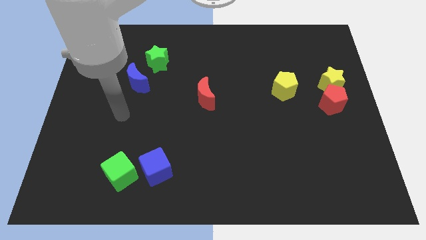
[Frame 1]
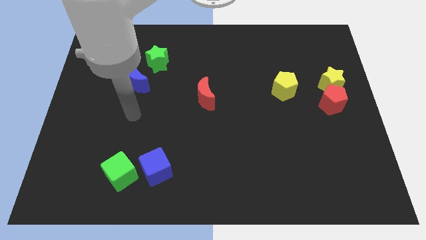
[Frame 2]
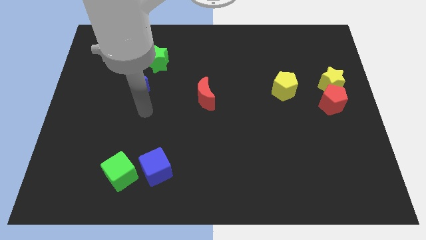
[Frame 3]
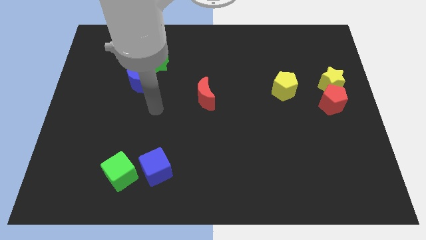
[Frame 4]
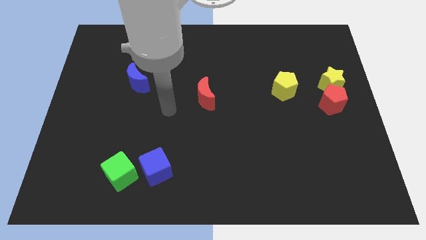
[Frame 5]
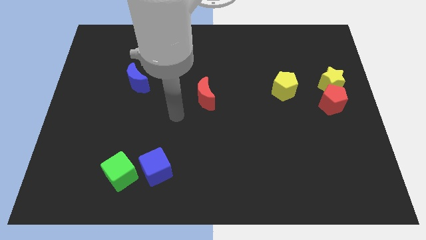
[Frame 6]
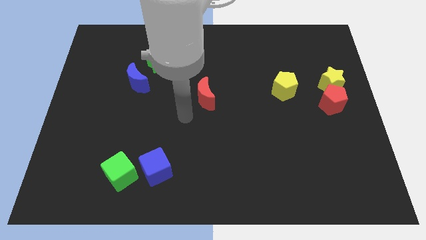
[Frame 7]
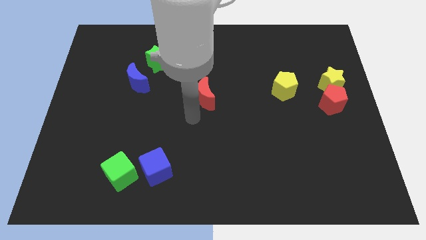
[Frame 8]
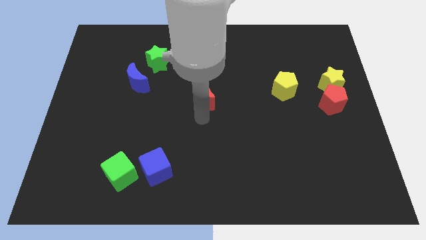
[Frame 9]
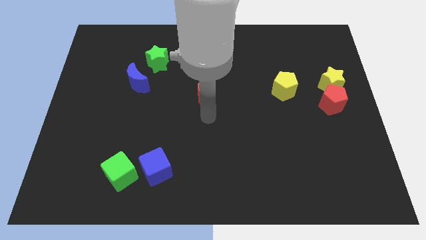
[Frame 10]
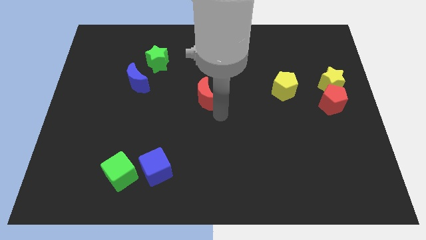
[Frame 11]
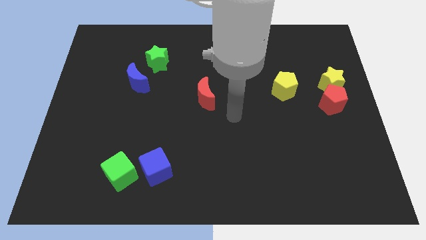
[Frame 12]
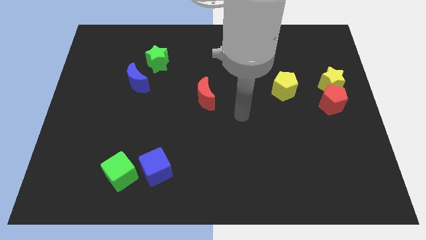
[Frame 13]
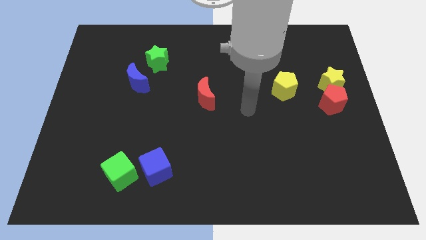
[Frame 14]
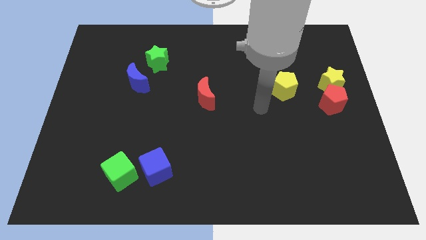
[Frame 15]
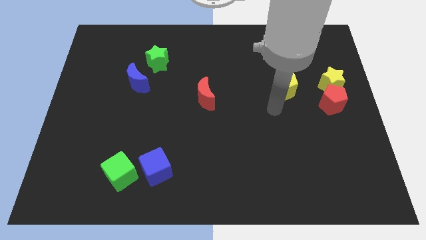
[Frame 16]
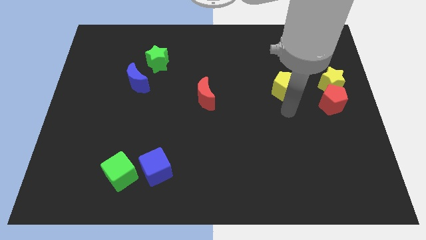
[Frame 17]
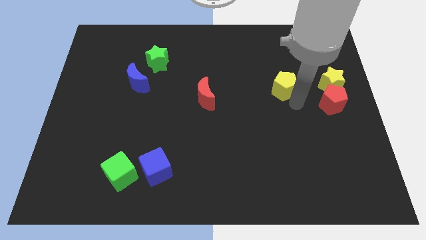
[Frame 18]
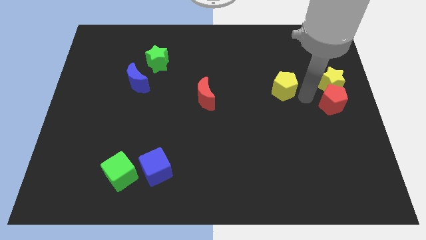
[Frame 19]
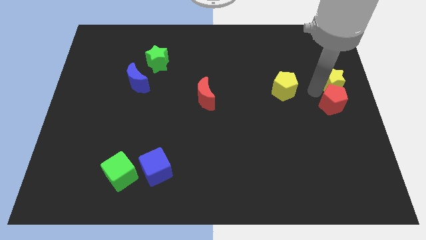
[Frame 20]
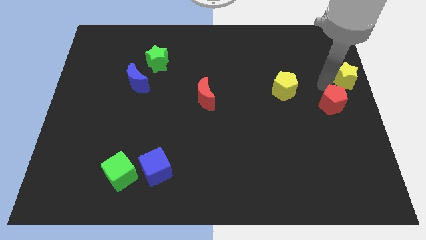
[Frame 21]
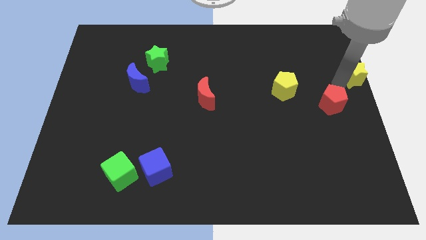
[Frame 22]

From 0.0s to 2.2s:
move the red pentagon away from the yellow star

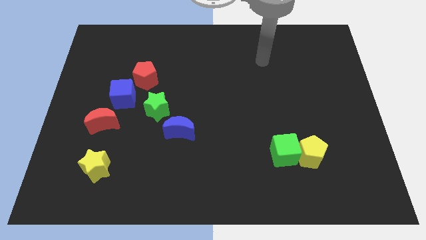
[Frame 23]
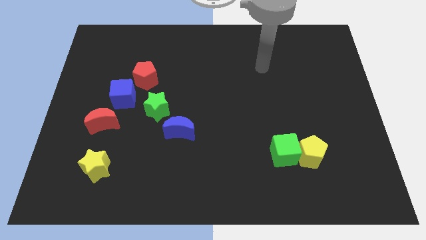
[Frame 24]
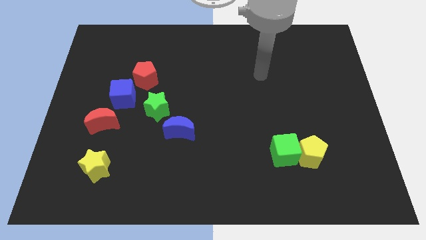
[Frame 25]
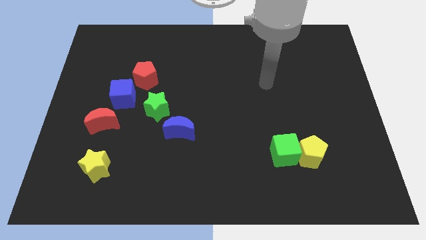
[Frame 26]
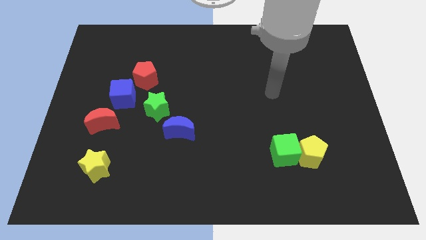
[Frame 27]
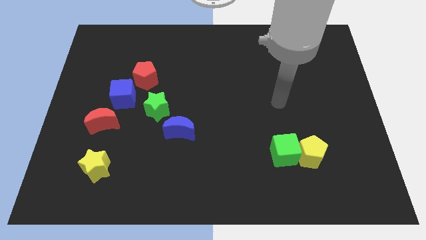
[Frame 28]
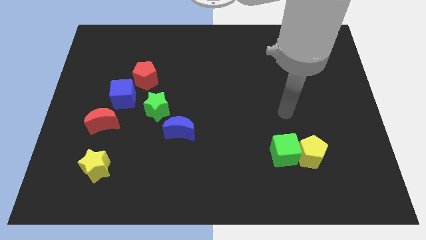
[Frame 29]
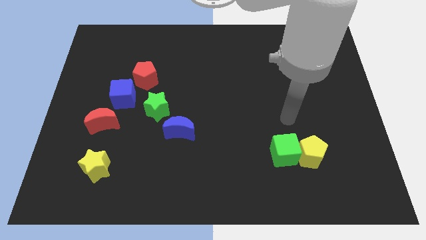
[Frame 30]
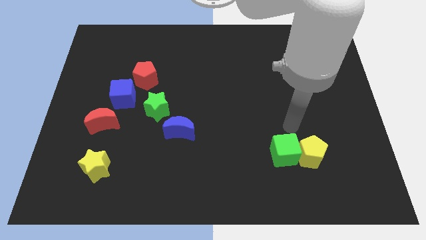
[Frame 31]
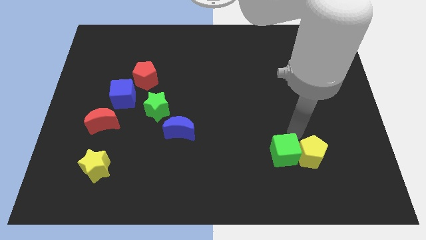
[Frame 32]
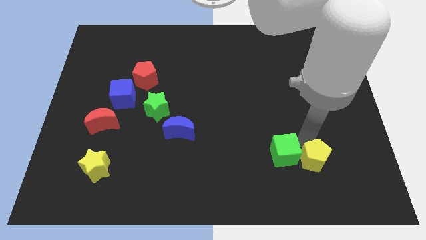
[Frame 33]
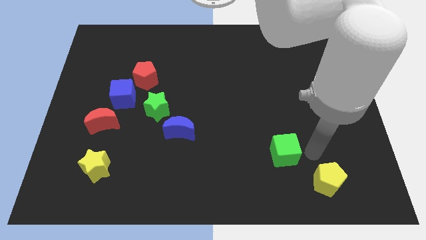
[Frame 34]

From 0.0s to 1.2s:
separate the green cube from the yellow pentagon

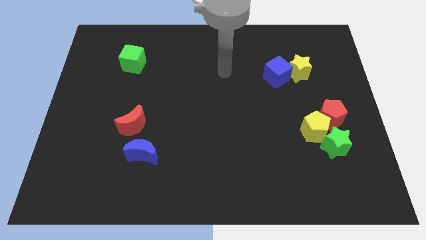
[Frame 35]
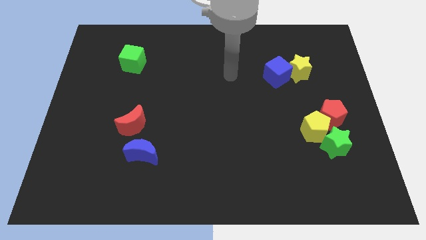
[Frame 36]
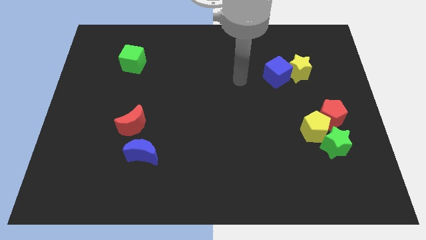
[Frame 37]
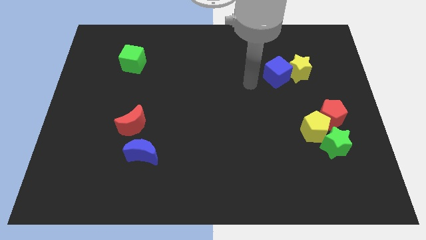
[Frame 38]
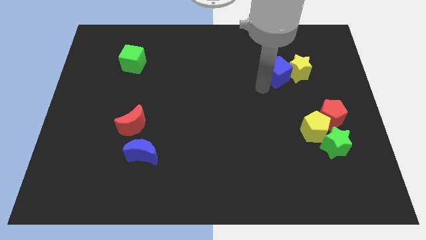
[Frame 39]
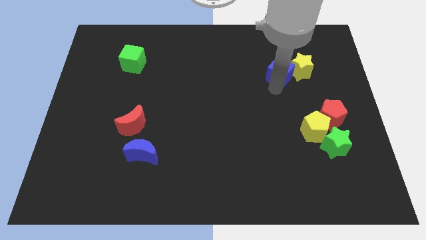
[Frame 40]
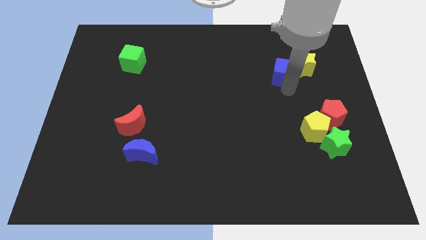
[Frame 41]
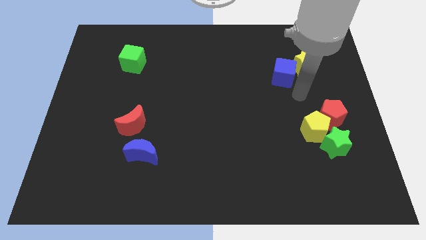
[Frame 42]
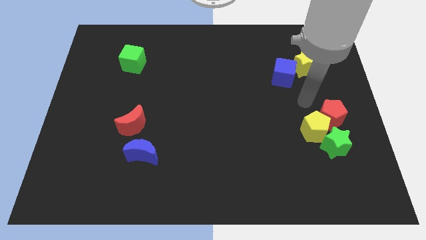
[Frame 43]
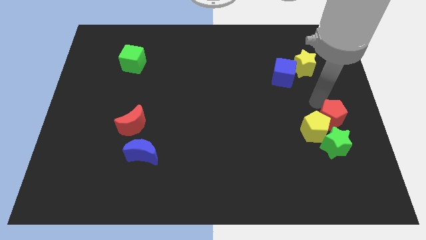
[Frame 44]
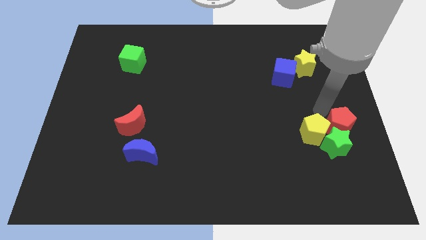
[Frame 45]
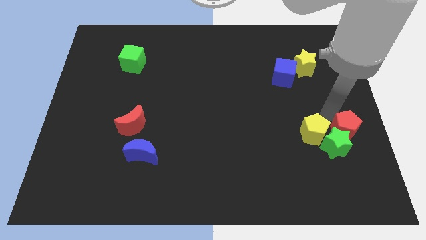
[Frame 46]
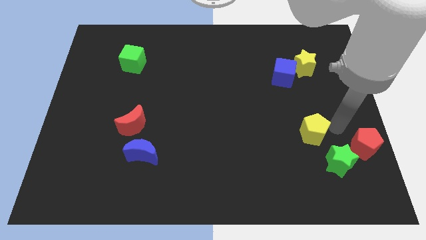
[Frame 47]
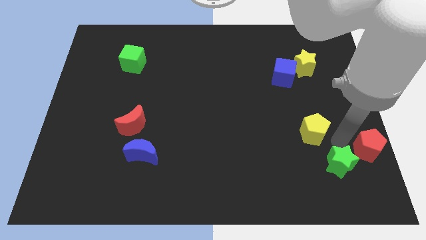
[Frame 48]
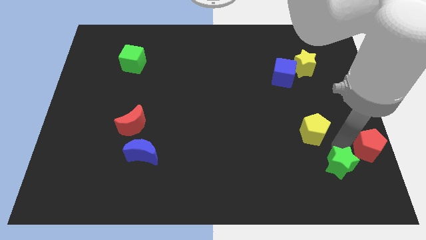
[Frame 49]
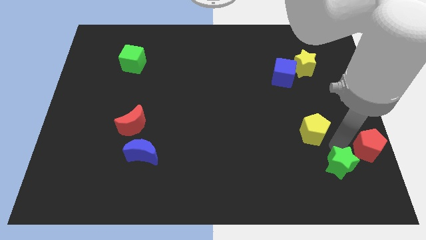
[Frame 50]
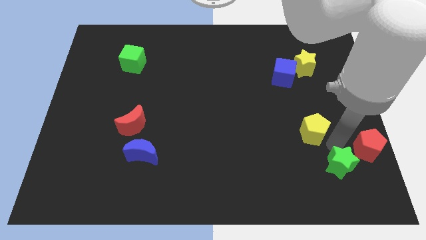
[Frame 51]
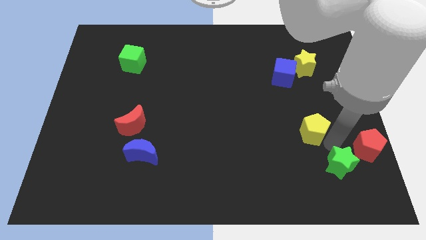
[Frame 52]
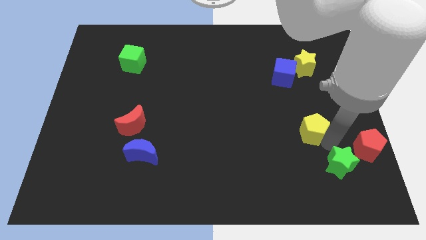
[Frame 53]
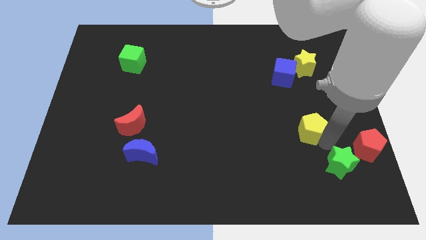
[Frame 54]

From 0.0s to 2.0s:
separate the yellow pentagon from the green star and red pentagon

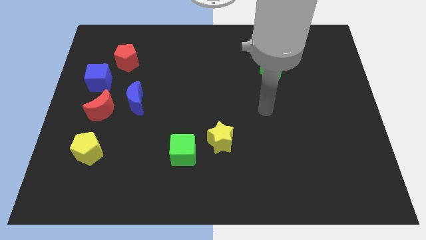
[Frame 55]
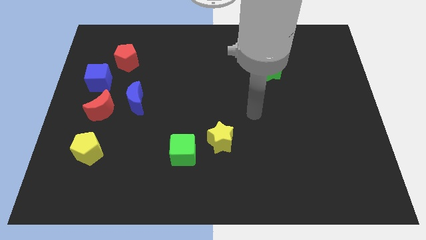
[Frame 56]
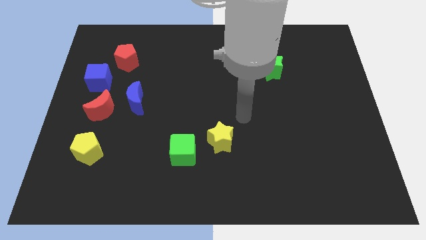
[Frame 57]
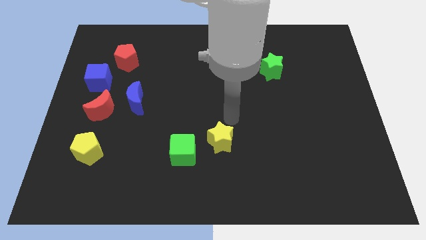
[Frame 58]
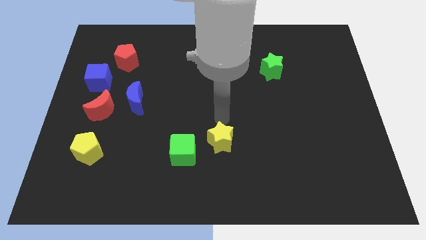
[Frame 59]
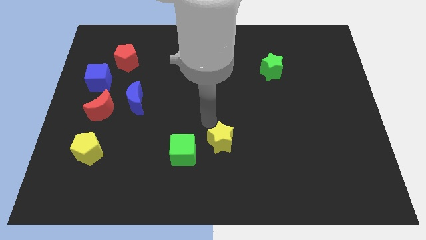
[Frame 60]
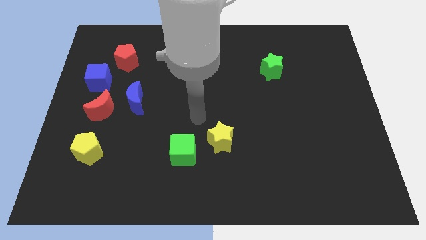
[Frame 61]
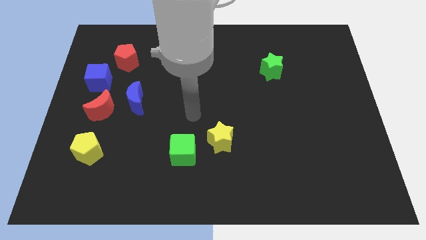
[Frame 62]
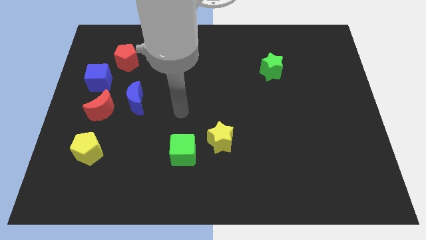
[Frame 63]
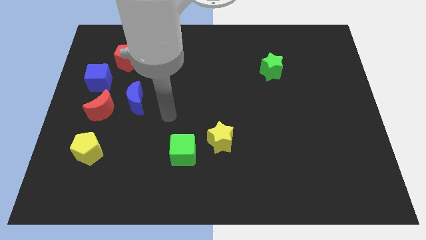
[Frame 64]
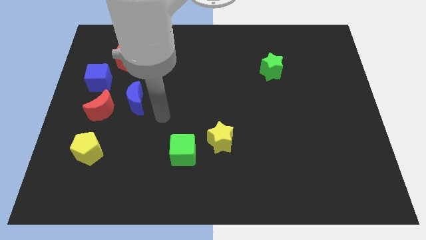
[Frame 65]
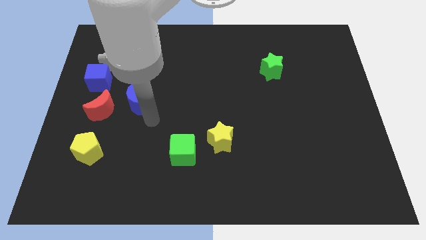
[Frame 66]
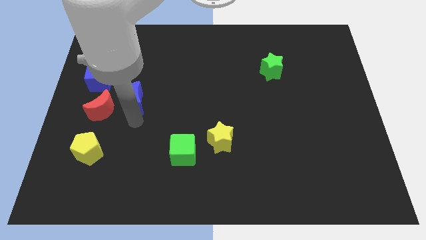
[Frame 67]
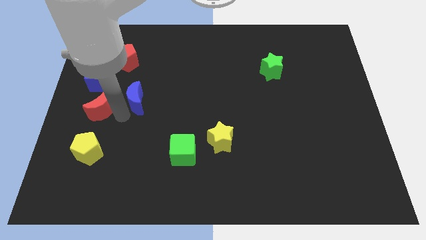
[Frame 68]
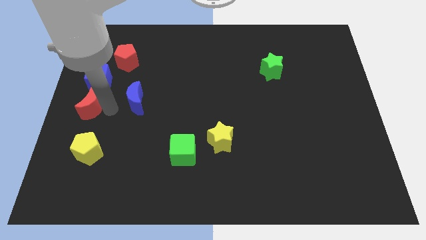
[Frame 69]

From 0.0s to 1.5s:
move the blue moon away from the red moon

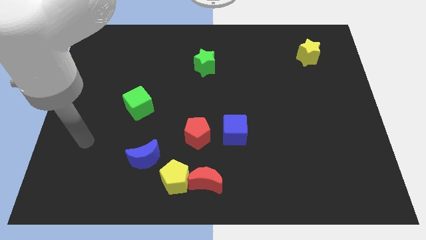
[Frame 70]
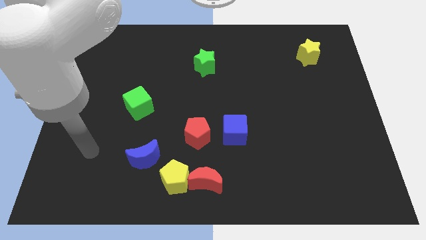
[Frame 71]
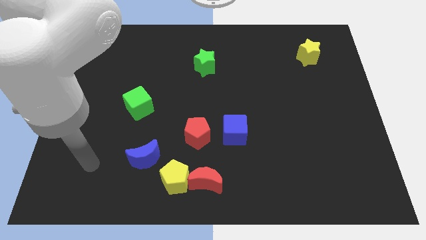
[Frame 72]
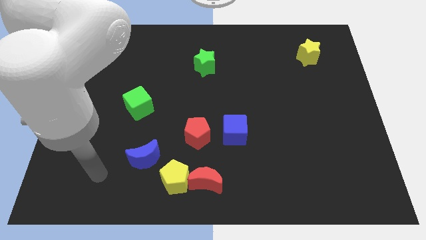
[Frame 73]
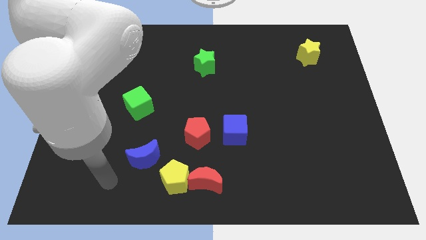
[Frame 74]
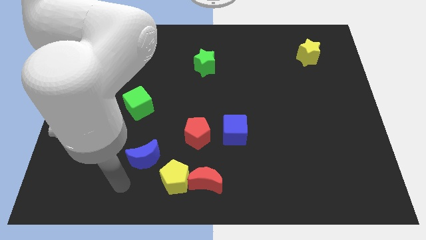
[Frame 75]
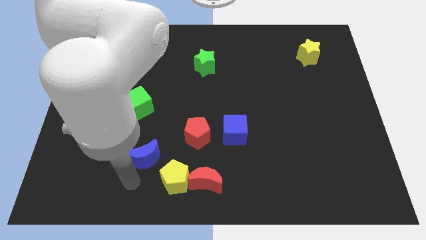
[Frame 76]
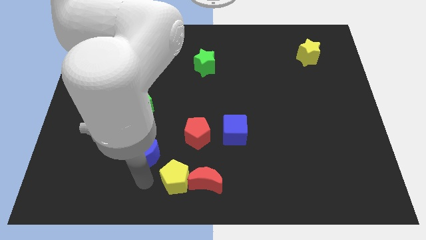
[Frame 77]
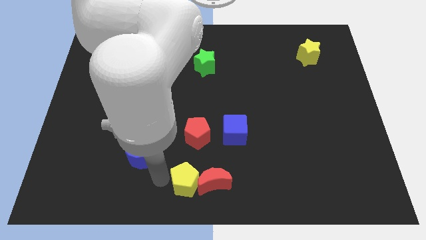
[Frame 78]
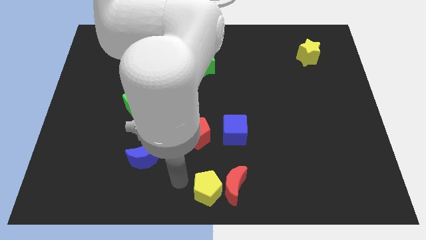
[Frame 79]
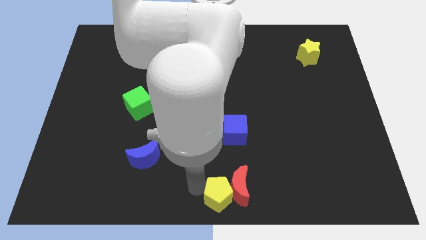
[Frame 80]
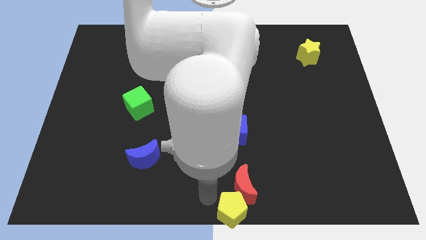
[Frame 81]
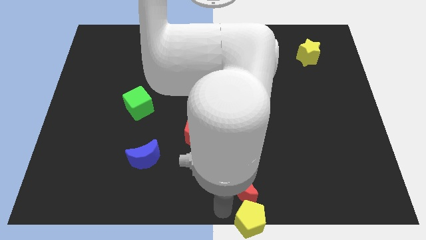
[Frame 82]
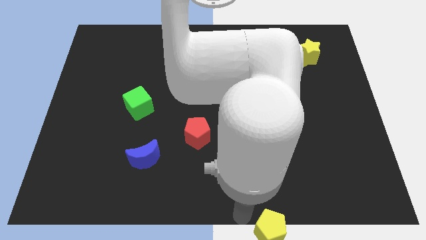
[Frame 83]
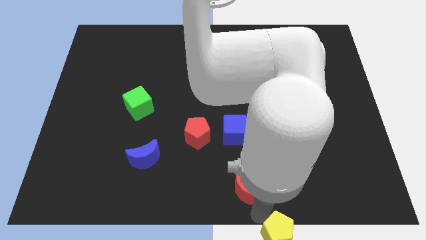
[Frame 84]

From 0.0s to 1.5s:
move the red moon away from the yellow pentagon

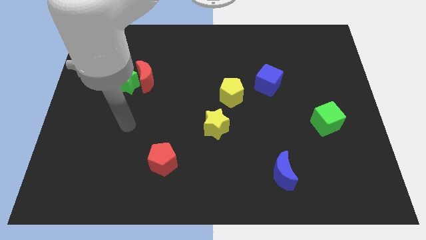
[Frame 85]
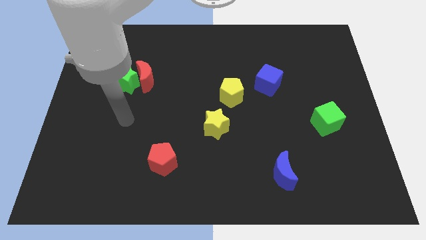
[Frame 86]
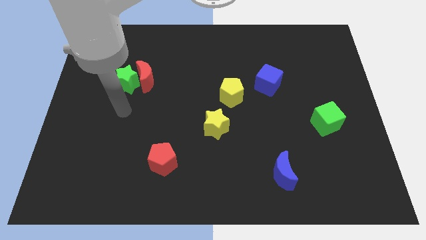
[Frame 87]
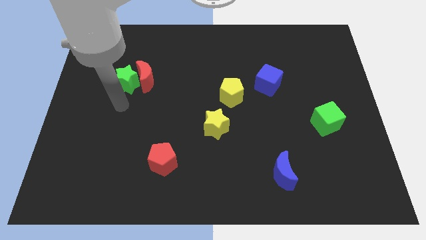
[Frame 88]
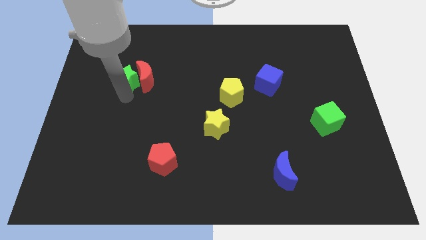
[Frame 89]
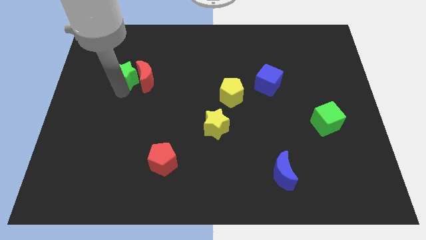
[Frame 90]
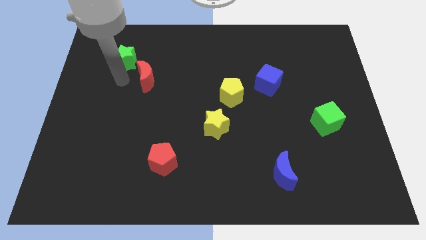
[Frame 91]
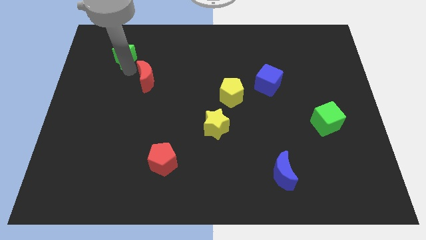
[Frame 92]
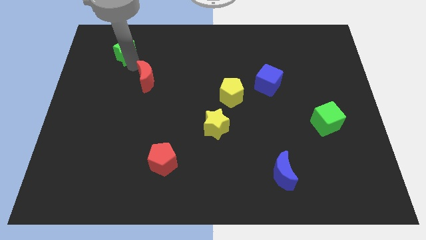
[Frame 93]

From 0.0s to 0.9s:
move the red moon away from the green star
